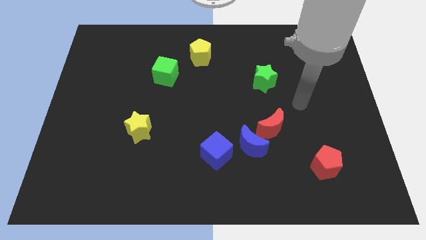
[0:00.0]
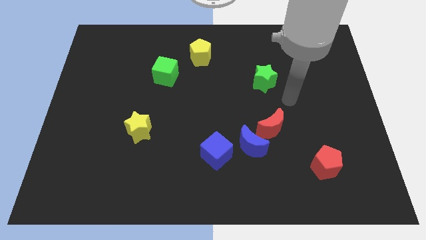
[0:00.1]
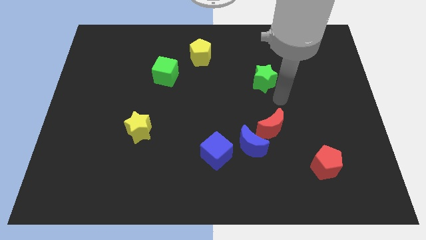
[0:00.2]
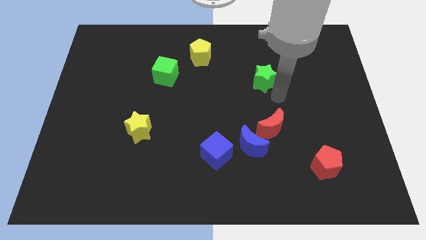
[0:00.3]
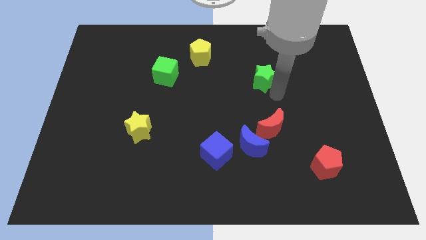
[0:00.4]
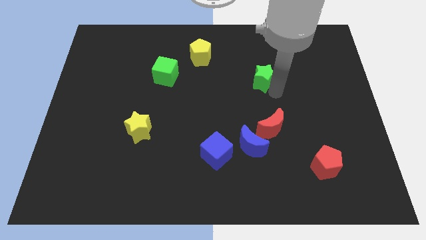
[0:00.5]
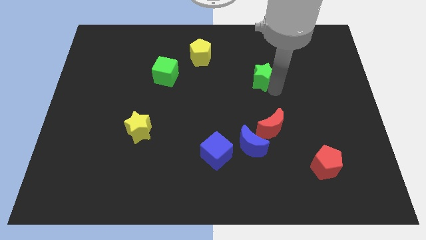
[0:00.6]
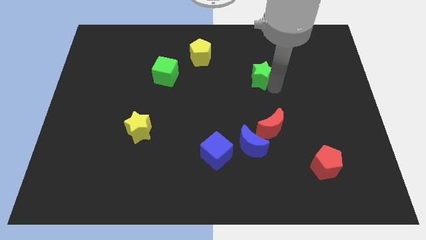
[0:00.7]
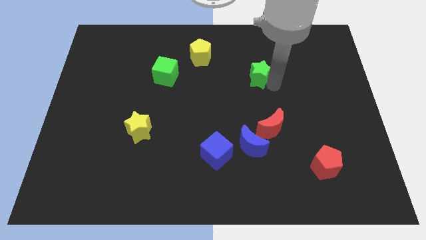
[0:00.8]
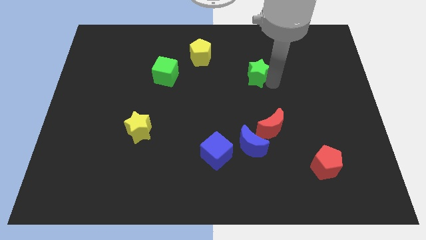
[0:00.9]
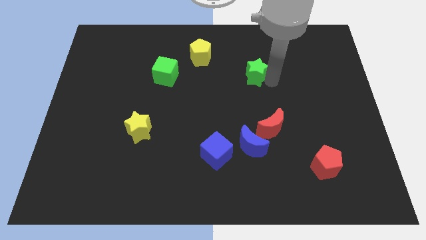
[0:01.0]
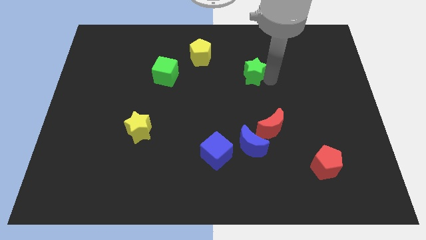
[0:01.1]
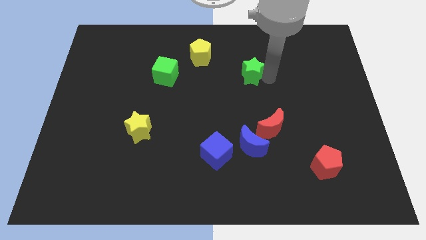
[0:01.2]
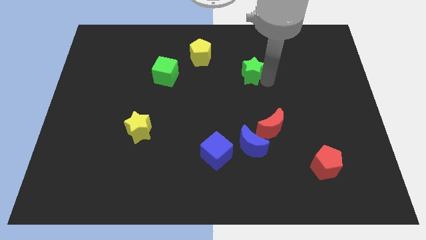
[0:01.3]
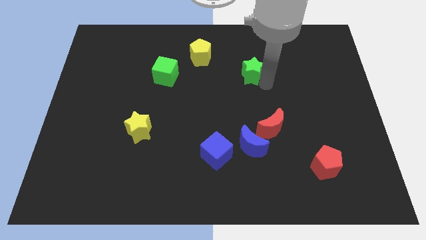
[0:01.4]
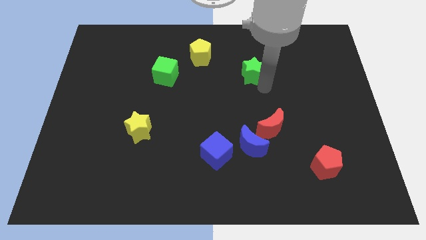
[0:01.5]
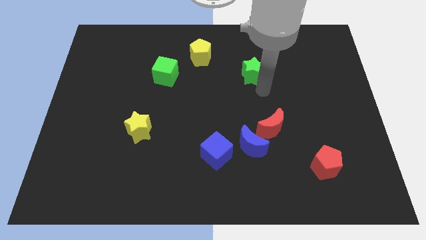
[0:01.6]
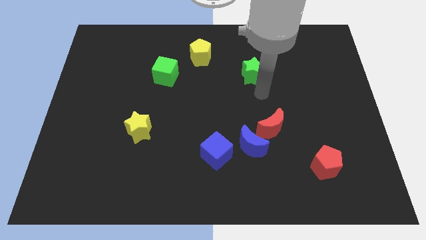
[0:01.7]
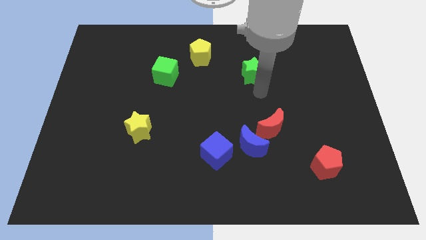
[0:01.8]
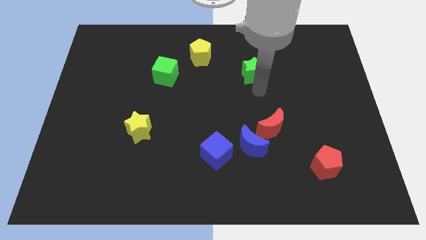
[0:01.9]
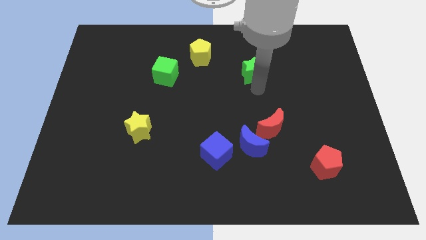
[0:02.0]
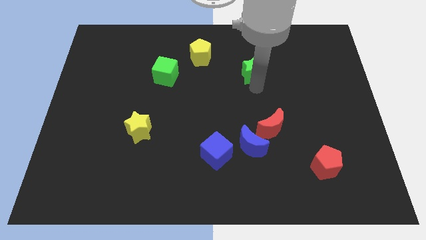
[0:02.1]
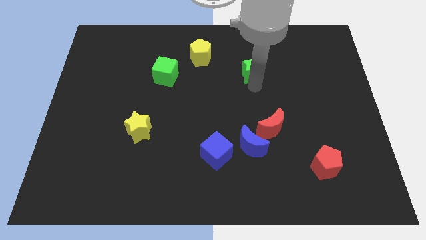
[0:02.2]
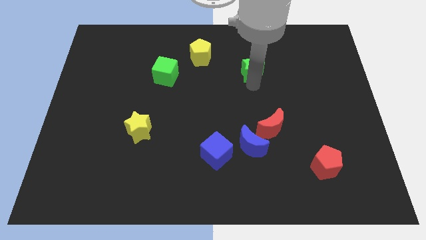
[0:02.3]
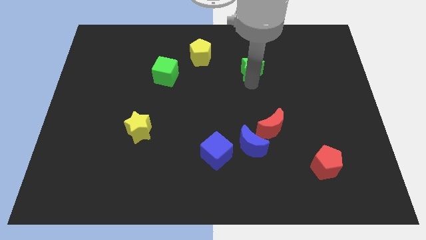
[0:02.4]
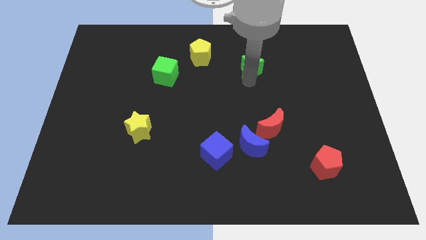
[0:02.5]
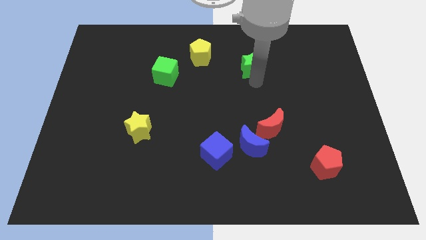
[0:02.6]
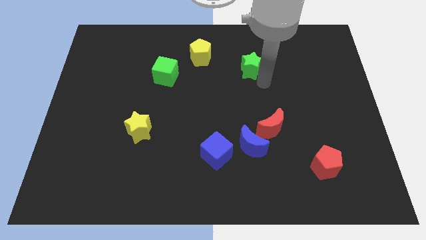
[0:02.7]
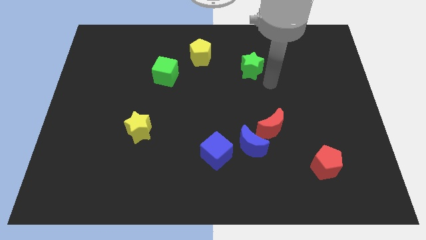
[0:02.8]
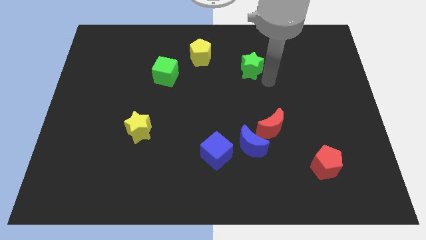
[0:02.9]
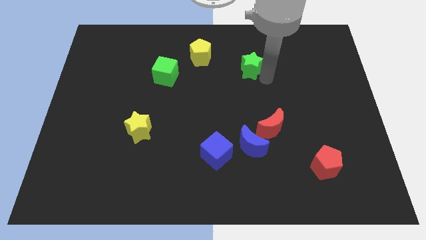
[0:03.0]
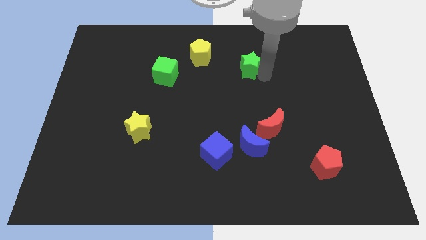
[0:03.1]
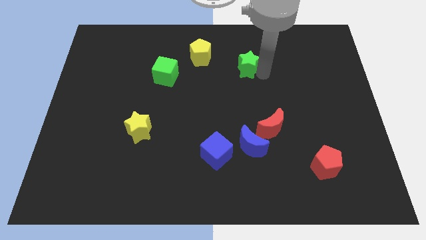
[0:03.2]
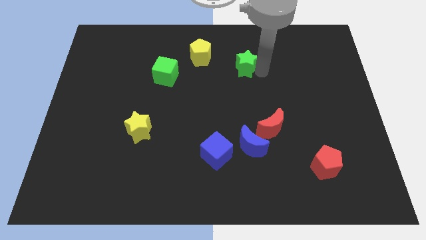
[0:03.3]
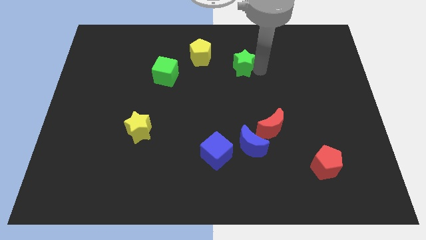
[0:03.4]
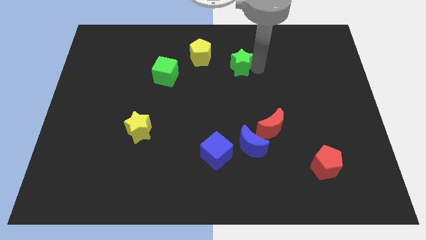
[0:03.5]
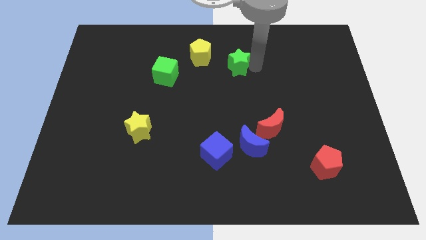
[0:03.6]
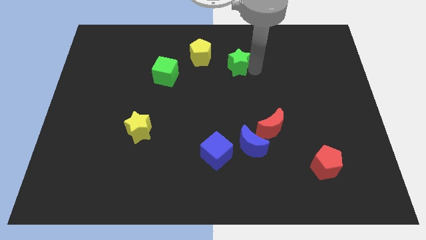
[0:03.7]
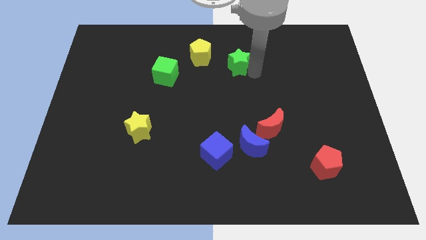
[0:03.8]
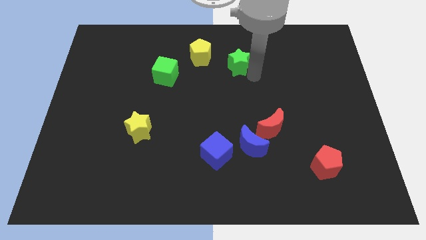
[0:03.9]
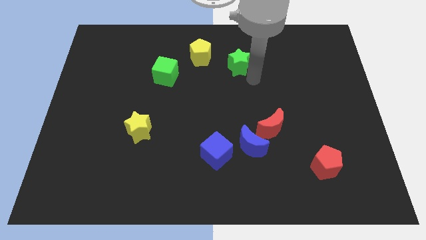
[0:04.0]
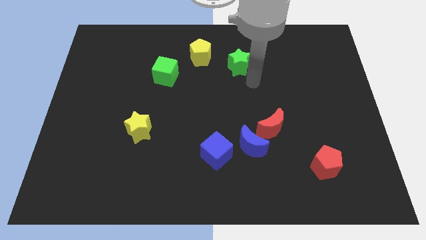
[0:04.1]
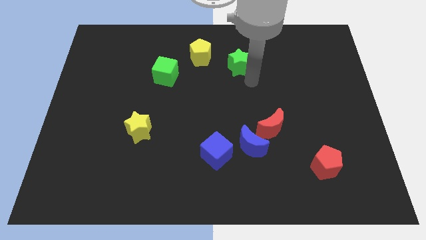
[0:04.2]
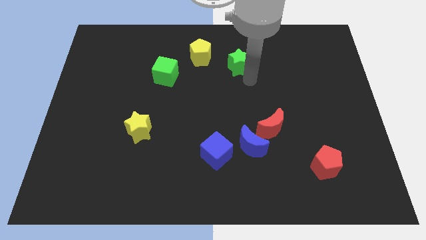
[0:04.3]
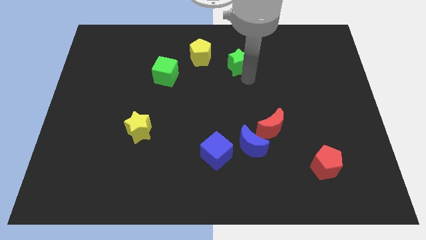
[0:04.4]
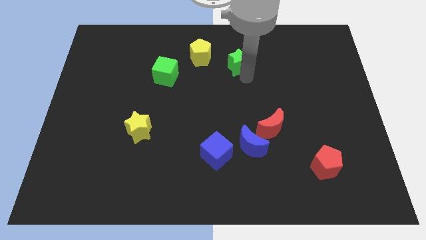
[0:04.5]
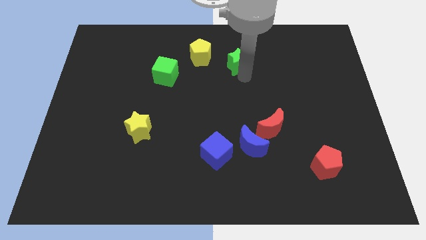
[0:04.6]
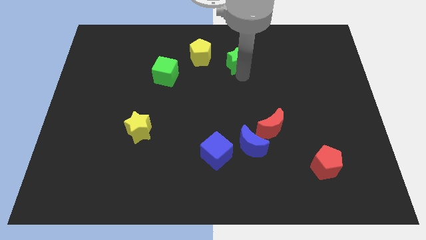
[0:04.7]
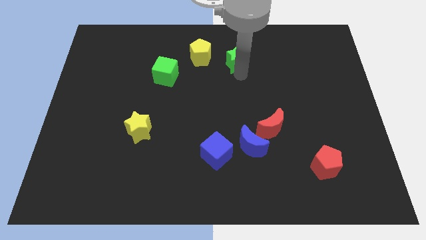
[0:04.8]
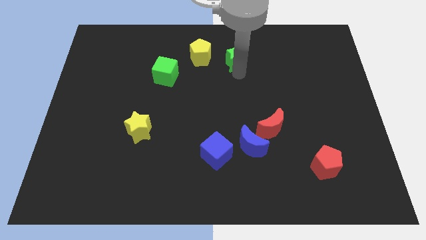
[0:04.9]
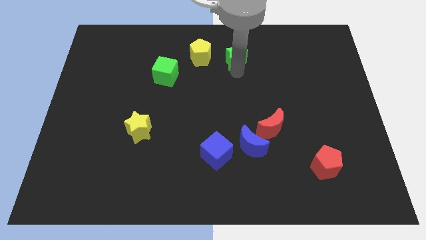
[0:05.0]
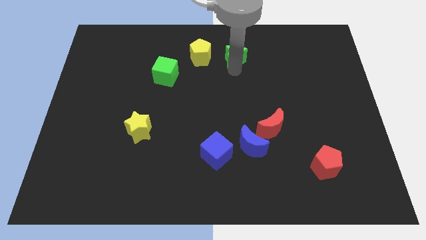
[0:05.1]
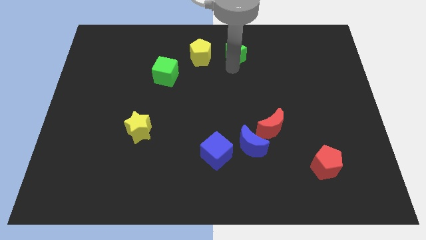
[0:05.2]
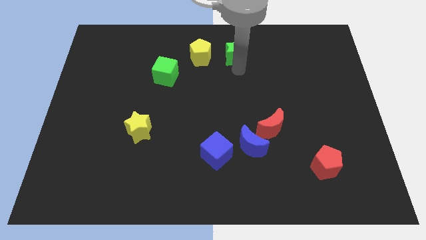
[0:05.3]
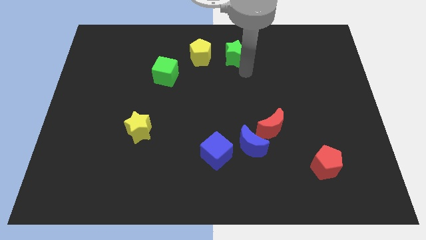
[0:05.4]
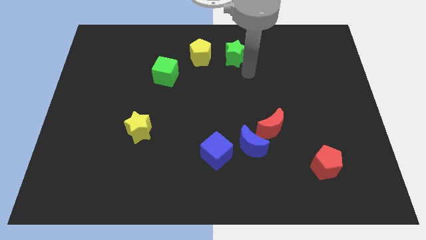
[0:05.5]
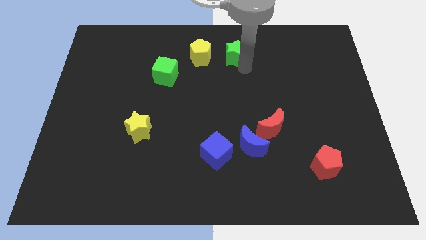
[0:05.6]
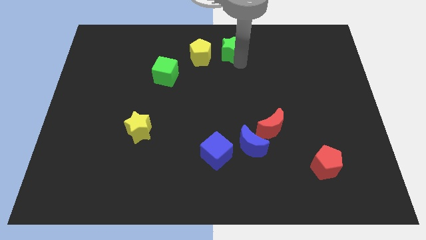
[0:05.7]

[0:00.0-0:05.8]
push the green star to the top

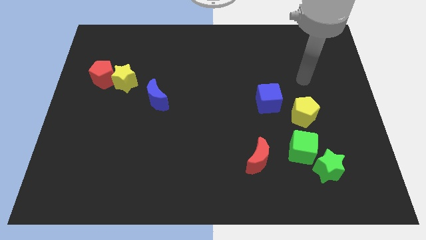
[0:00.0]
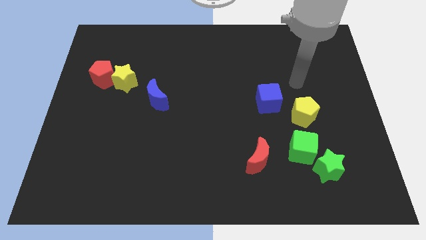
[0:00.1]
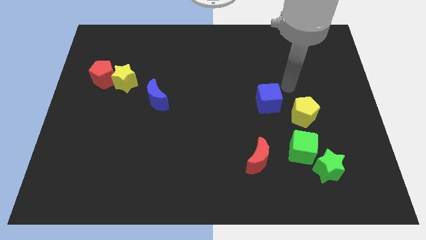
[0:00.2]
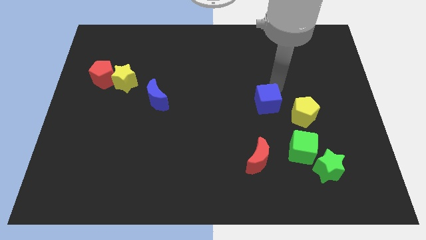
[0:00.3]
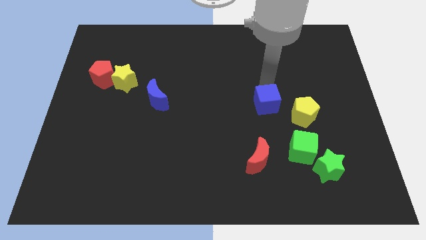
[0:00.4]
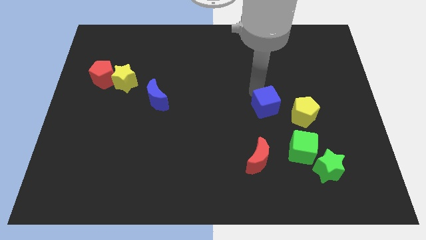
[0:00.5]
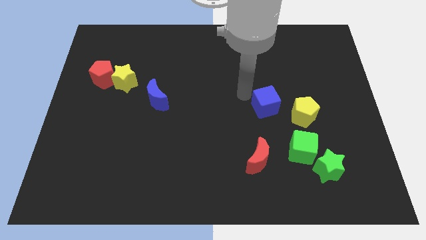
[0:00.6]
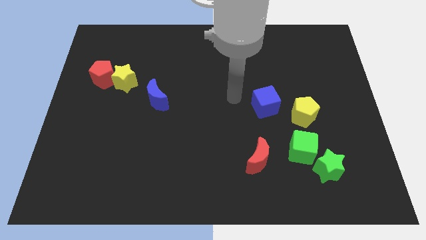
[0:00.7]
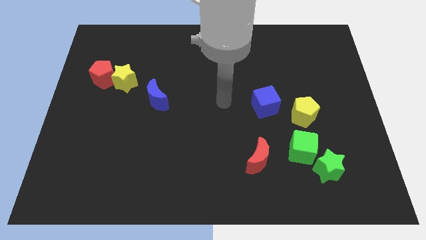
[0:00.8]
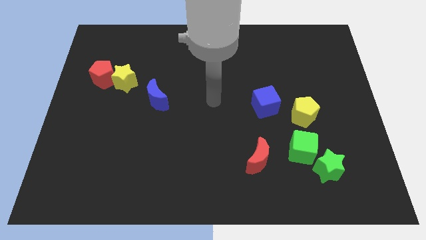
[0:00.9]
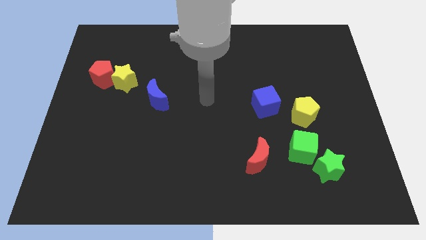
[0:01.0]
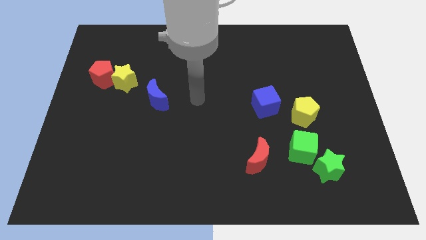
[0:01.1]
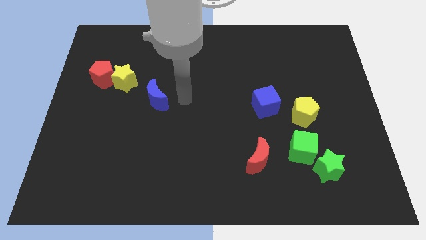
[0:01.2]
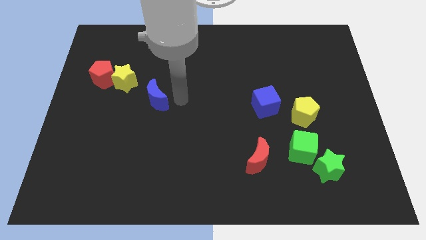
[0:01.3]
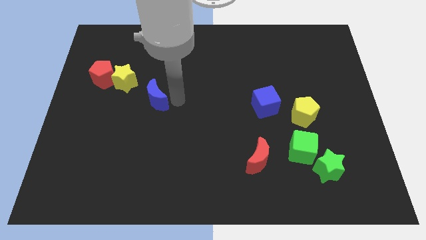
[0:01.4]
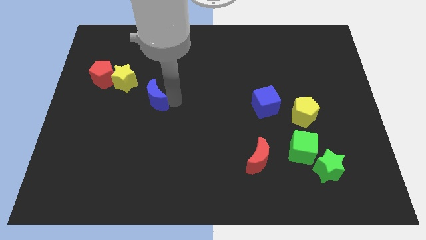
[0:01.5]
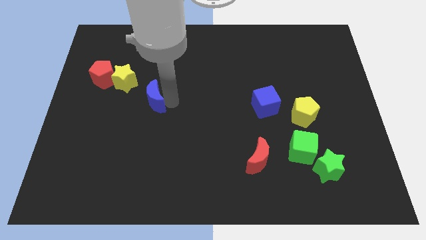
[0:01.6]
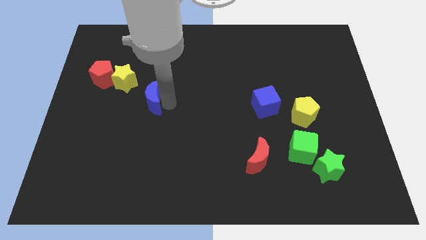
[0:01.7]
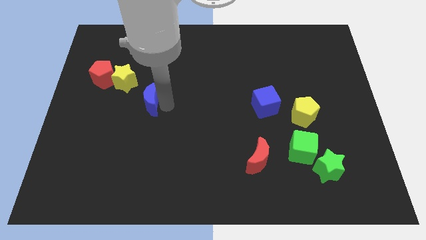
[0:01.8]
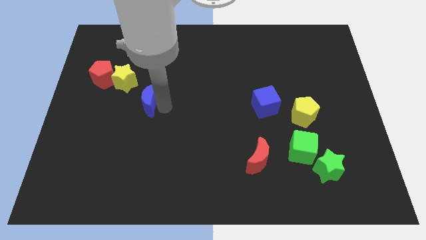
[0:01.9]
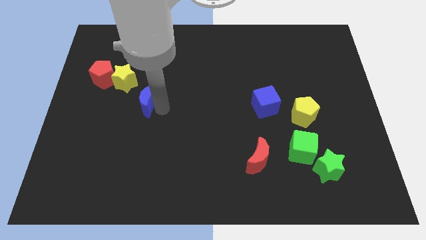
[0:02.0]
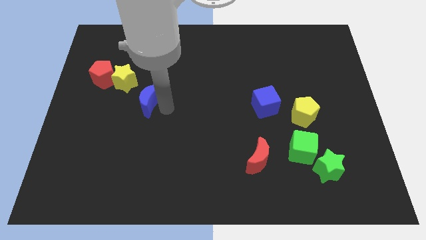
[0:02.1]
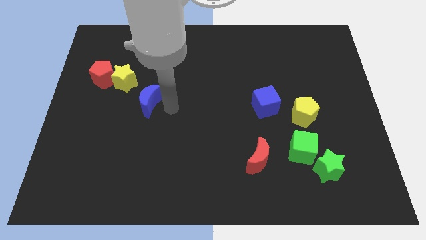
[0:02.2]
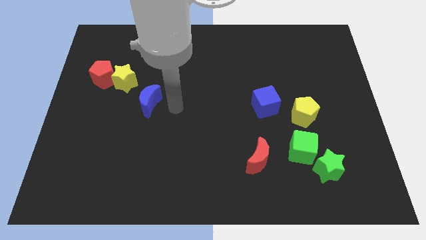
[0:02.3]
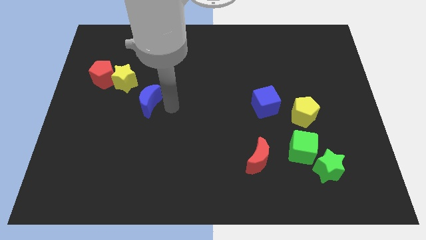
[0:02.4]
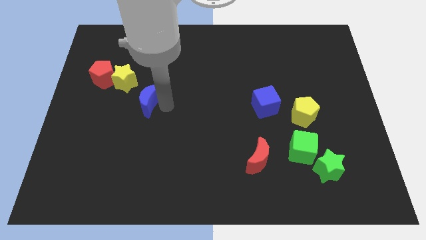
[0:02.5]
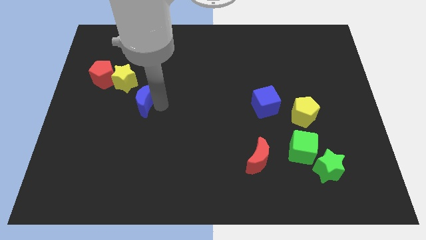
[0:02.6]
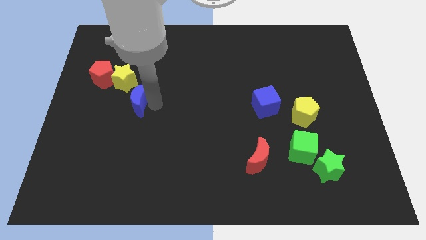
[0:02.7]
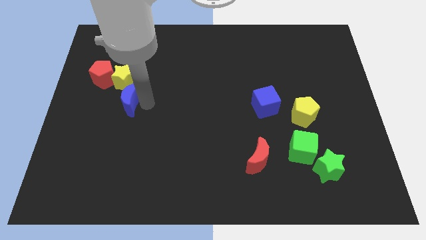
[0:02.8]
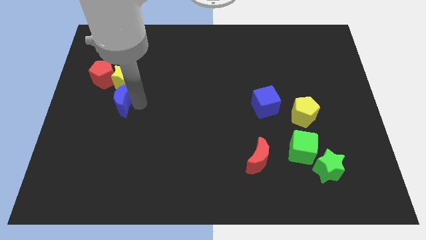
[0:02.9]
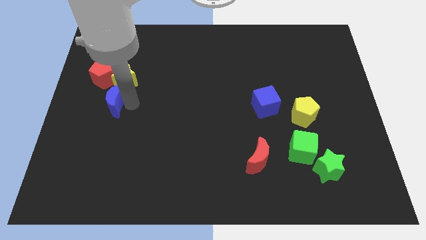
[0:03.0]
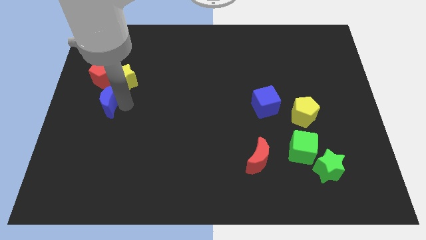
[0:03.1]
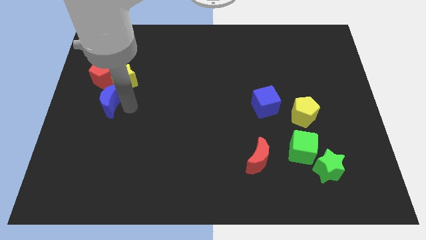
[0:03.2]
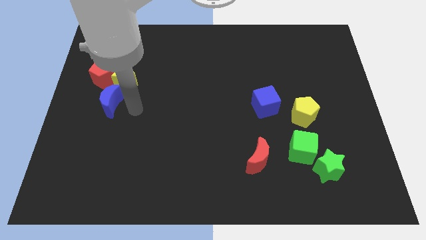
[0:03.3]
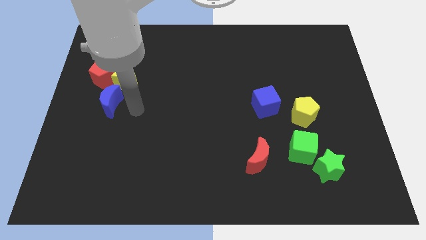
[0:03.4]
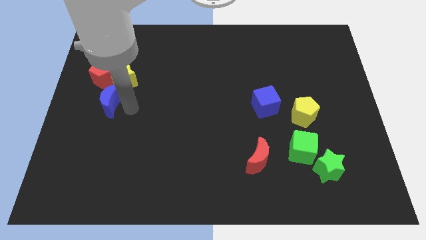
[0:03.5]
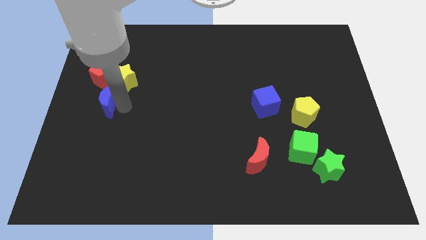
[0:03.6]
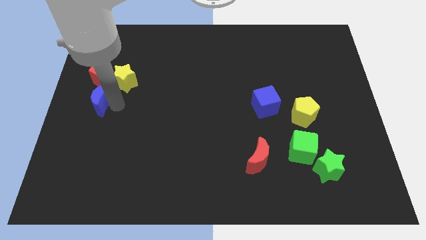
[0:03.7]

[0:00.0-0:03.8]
push the blue moon to the center left
